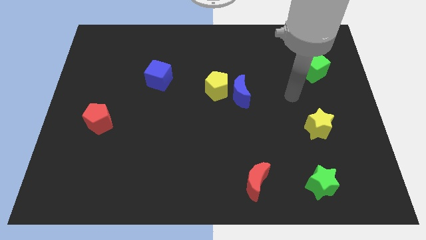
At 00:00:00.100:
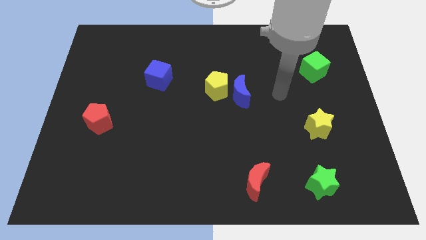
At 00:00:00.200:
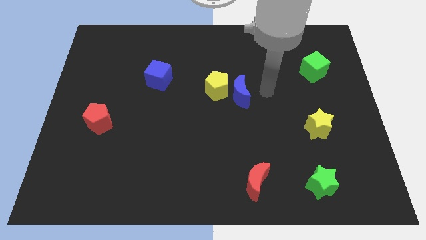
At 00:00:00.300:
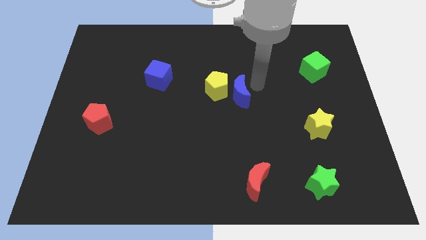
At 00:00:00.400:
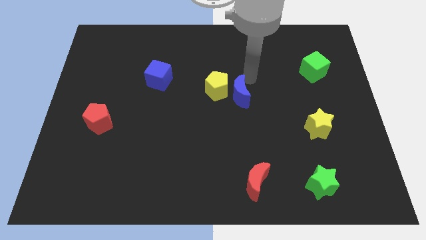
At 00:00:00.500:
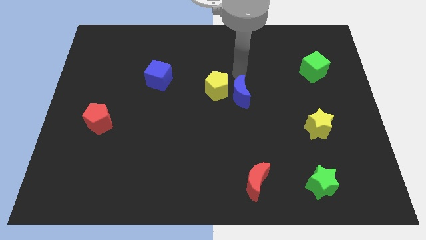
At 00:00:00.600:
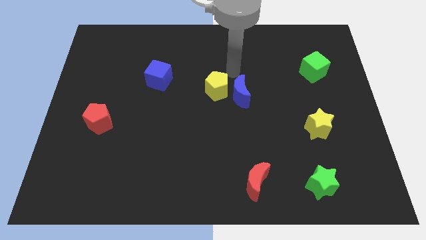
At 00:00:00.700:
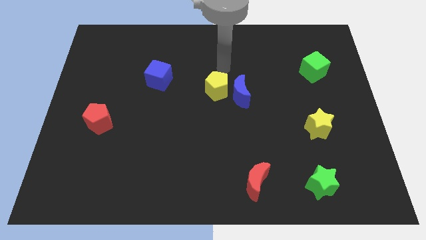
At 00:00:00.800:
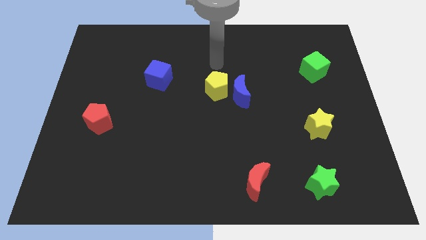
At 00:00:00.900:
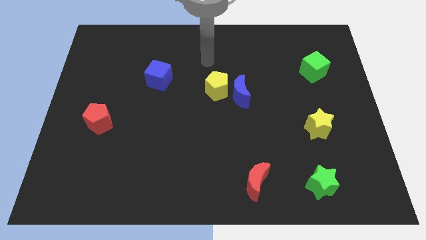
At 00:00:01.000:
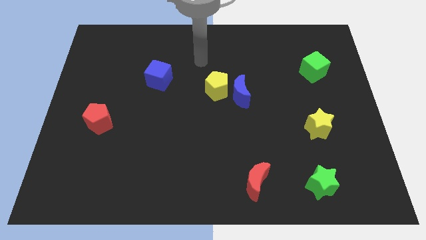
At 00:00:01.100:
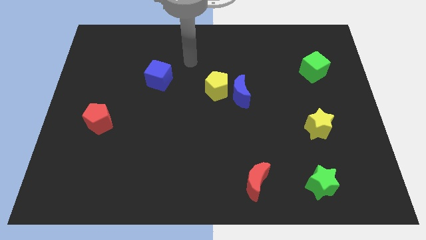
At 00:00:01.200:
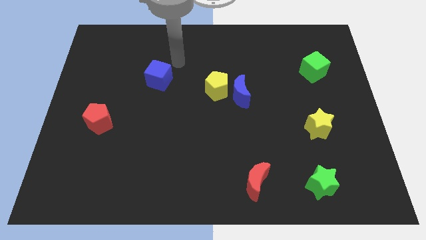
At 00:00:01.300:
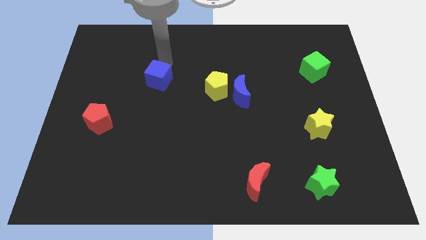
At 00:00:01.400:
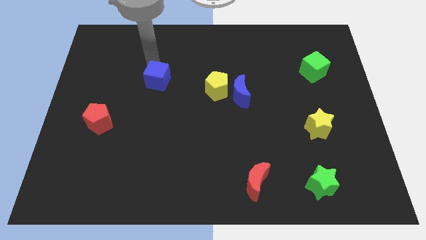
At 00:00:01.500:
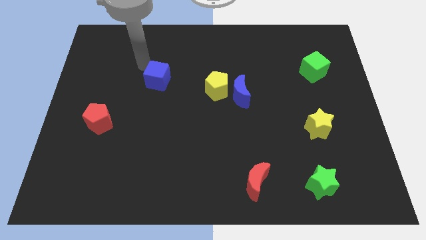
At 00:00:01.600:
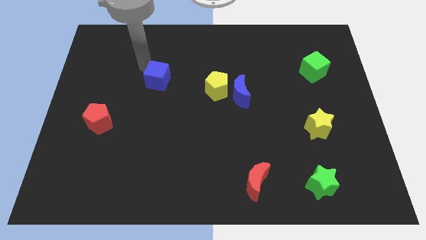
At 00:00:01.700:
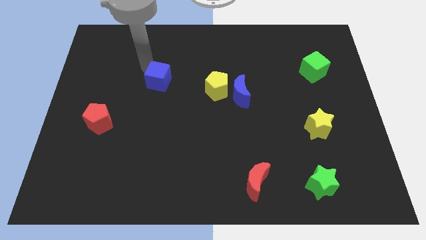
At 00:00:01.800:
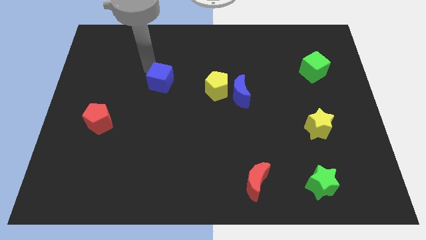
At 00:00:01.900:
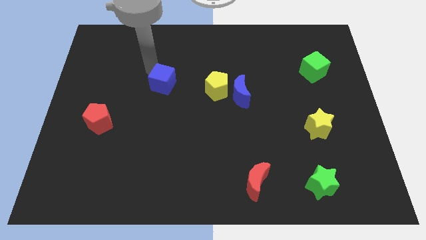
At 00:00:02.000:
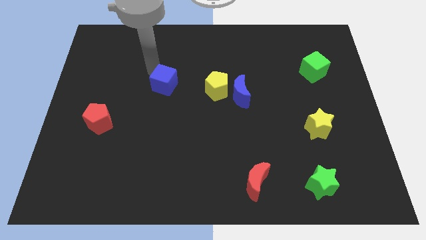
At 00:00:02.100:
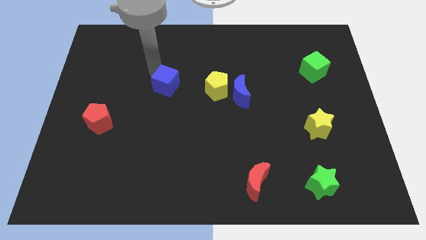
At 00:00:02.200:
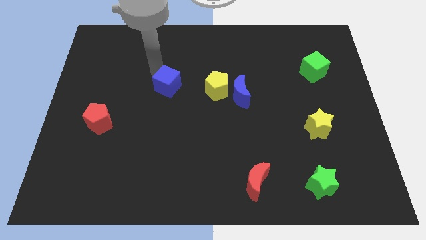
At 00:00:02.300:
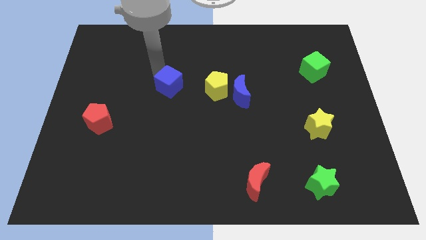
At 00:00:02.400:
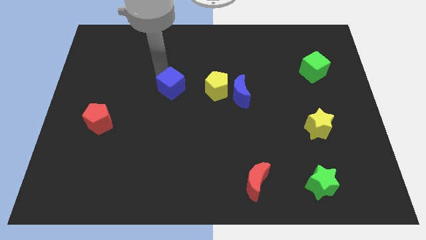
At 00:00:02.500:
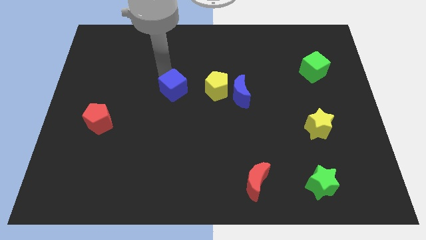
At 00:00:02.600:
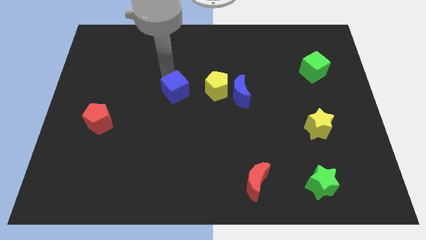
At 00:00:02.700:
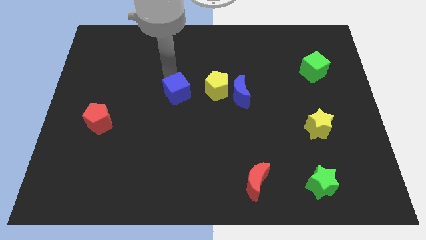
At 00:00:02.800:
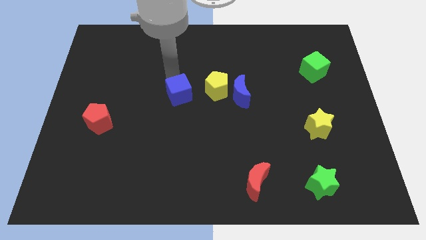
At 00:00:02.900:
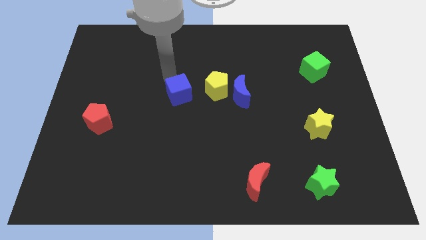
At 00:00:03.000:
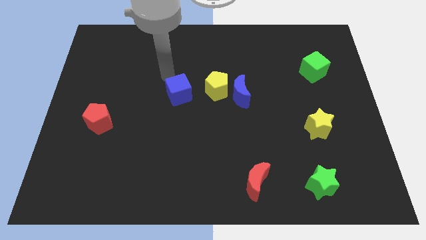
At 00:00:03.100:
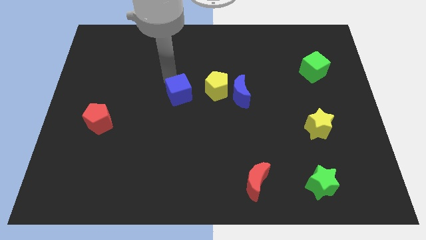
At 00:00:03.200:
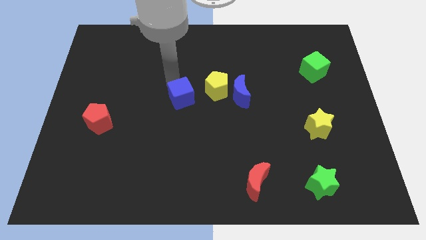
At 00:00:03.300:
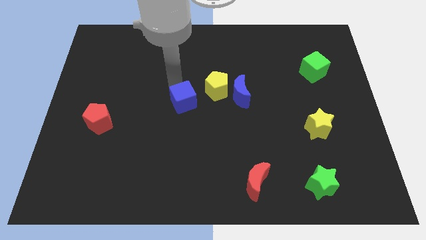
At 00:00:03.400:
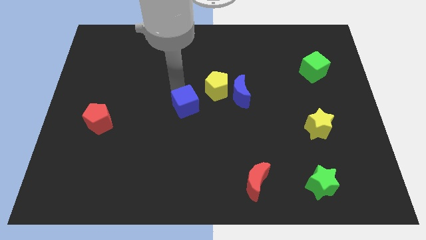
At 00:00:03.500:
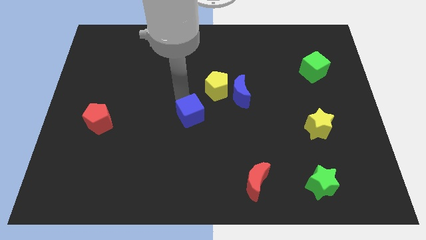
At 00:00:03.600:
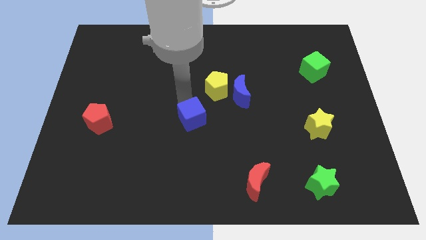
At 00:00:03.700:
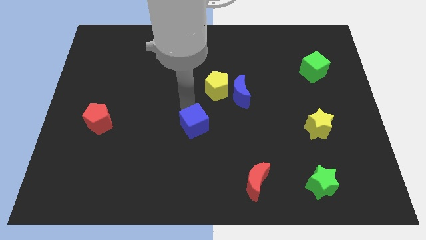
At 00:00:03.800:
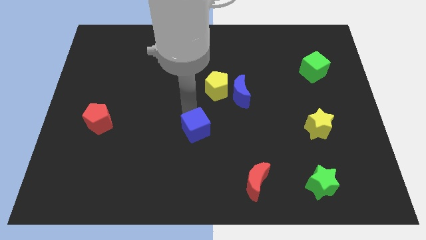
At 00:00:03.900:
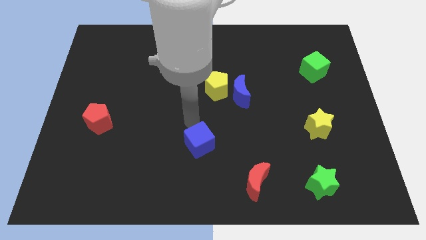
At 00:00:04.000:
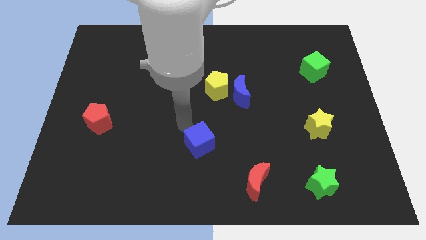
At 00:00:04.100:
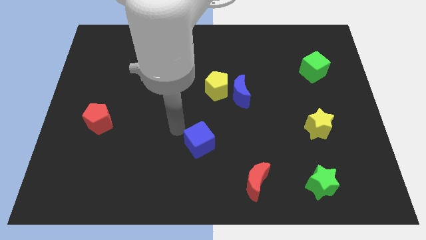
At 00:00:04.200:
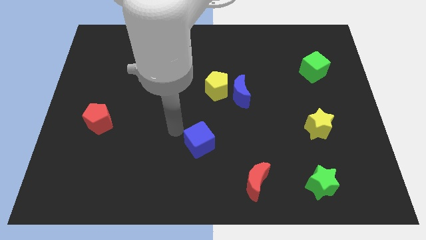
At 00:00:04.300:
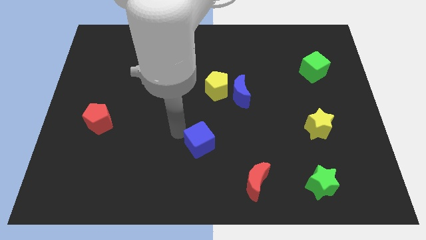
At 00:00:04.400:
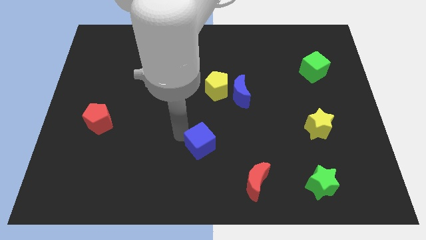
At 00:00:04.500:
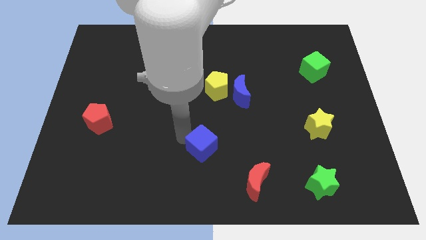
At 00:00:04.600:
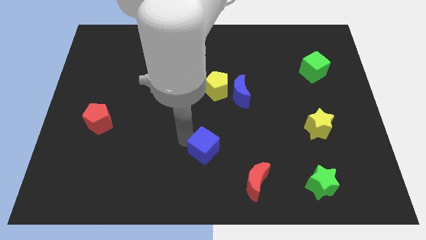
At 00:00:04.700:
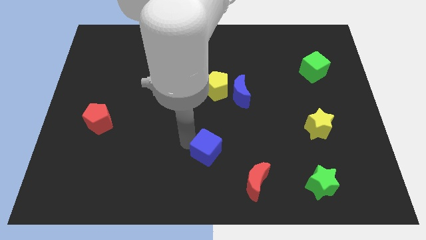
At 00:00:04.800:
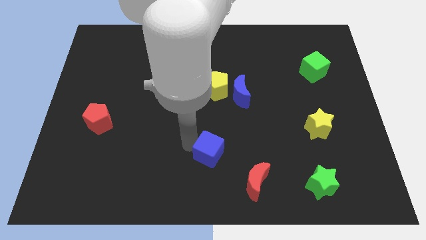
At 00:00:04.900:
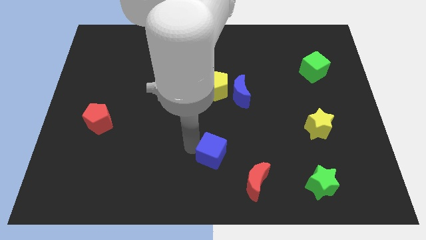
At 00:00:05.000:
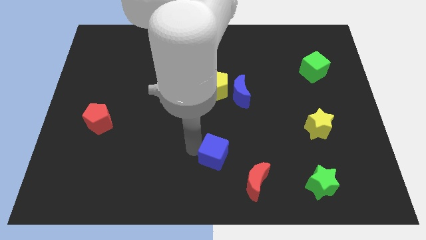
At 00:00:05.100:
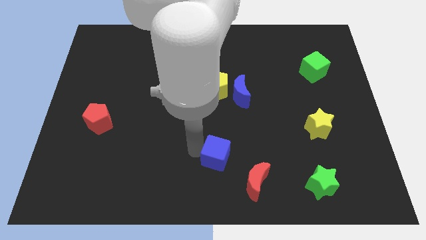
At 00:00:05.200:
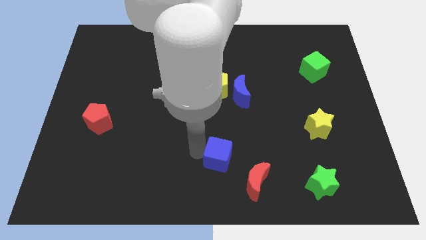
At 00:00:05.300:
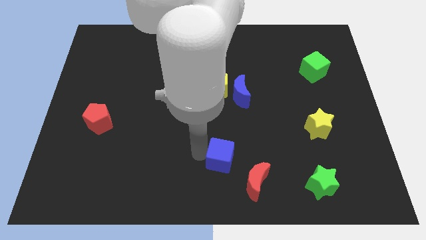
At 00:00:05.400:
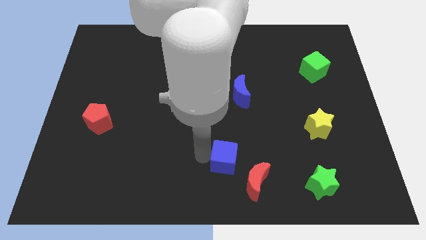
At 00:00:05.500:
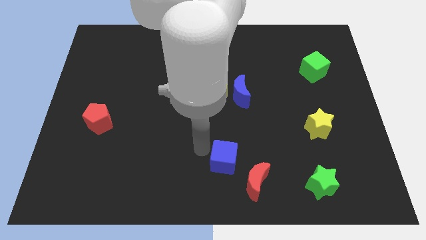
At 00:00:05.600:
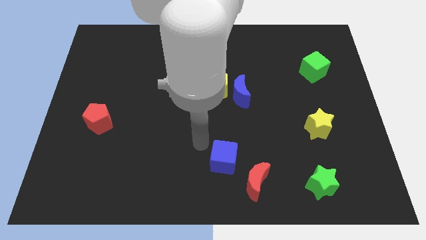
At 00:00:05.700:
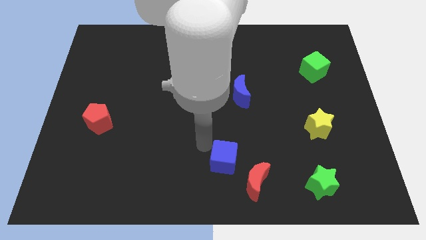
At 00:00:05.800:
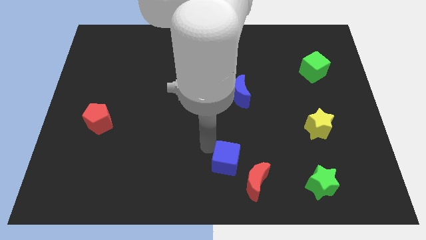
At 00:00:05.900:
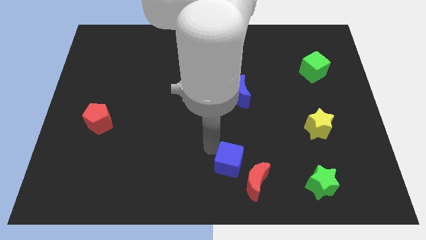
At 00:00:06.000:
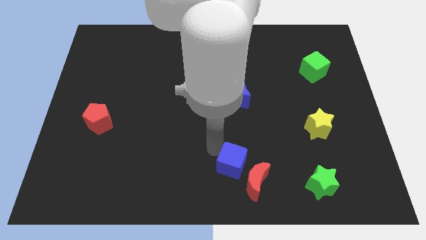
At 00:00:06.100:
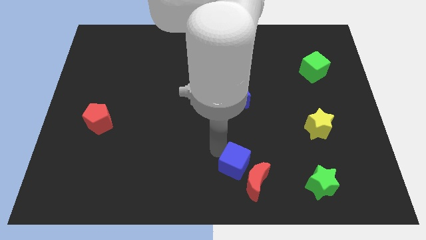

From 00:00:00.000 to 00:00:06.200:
push the blue cube next to the red moon

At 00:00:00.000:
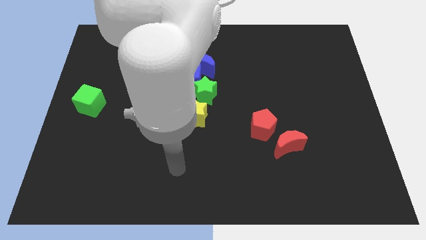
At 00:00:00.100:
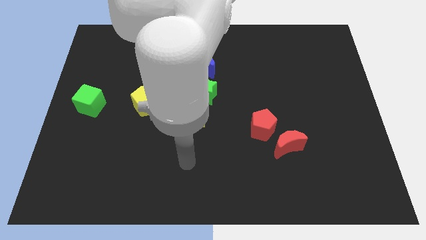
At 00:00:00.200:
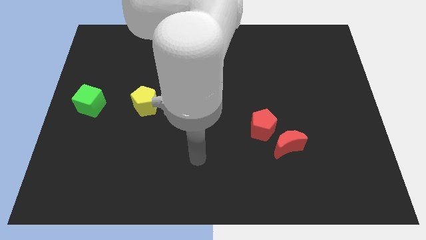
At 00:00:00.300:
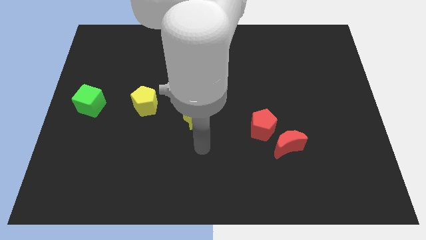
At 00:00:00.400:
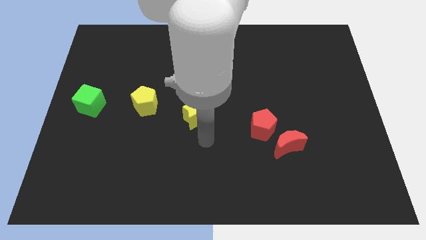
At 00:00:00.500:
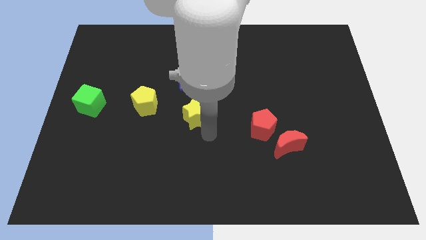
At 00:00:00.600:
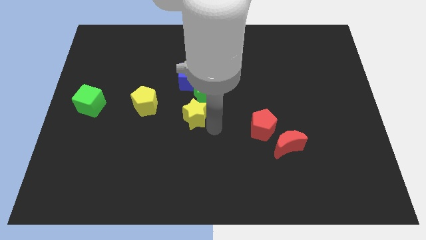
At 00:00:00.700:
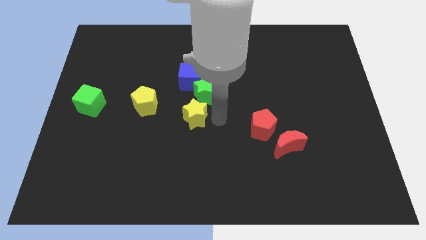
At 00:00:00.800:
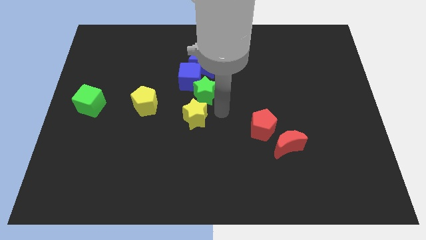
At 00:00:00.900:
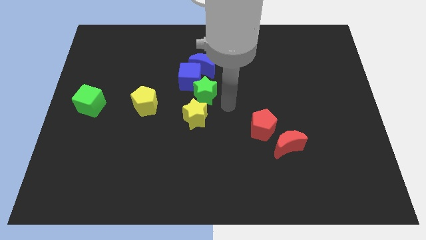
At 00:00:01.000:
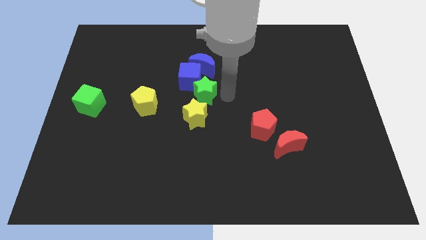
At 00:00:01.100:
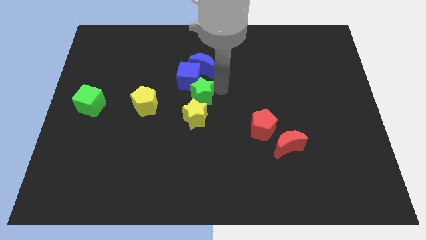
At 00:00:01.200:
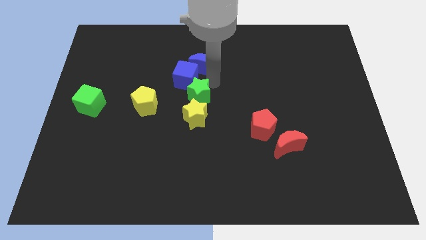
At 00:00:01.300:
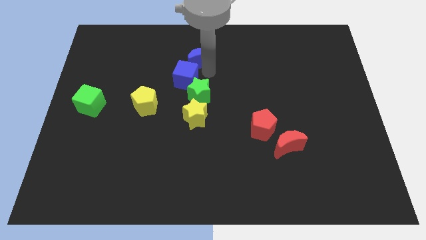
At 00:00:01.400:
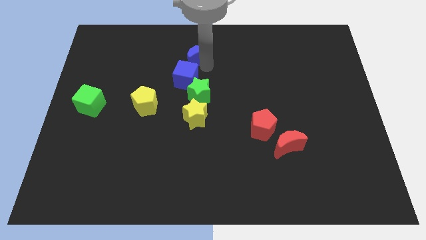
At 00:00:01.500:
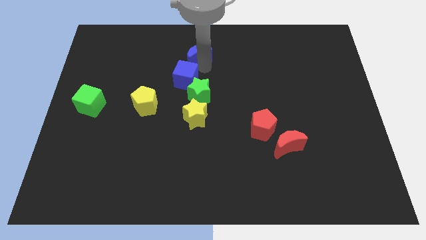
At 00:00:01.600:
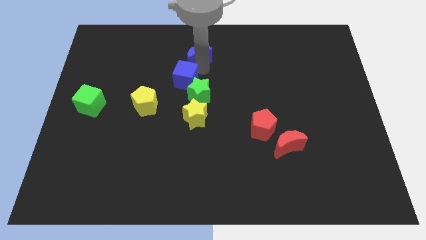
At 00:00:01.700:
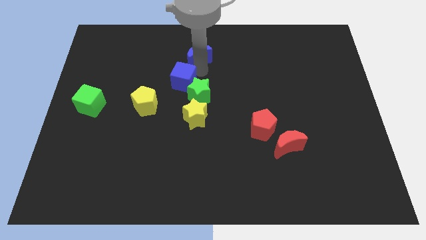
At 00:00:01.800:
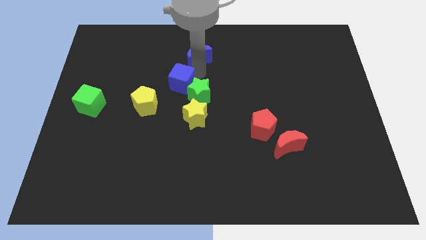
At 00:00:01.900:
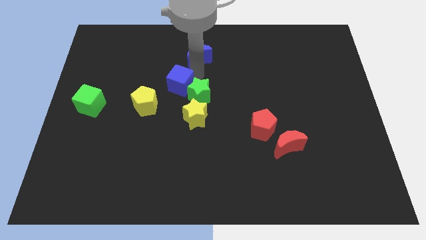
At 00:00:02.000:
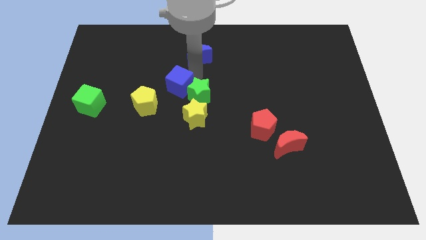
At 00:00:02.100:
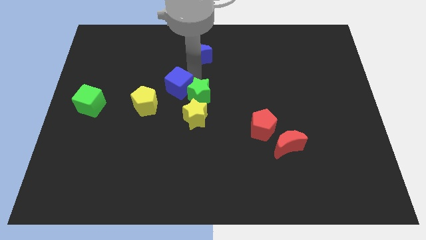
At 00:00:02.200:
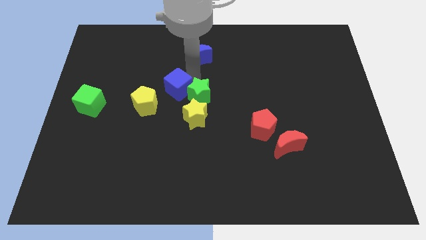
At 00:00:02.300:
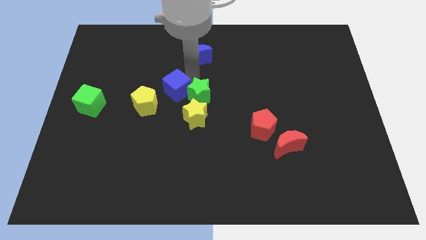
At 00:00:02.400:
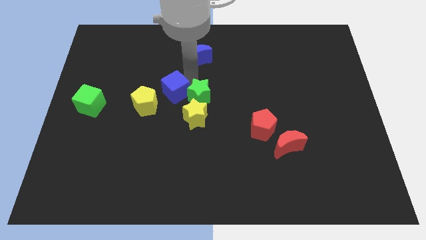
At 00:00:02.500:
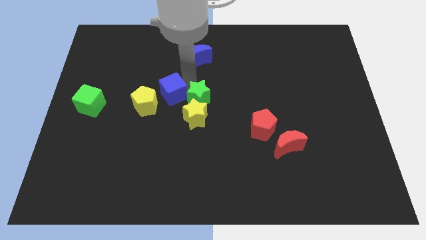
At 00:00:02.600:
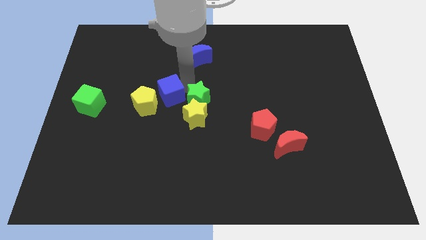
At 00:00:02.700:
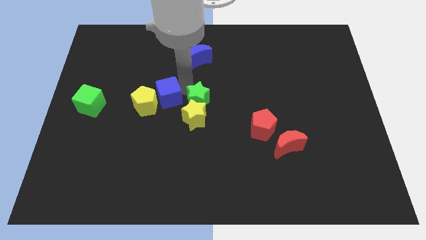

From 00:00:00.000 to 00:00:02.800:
move the blue cube next to the yellow pentagon
